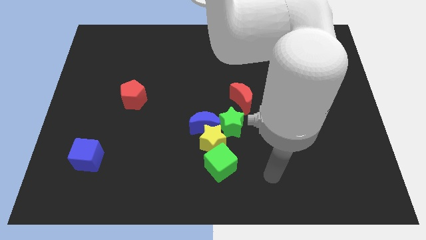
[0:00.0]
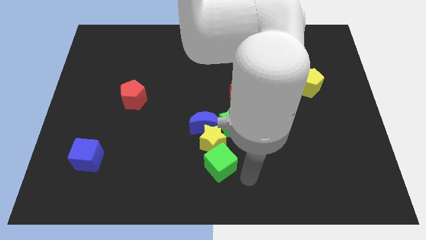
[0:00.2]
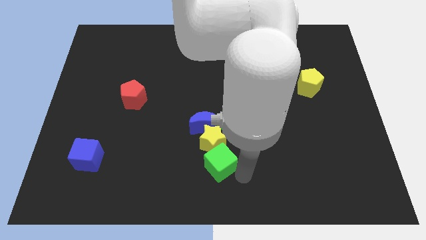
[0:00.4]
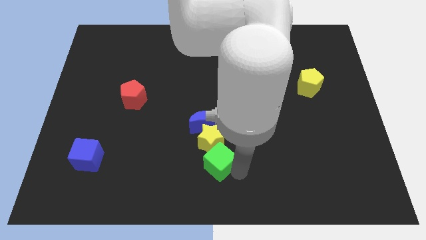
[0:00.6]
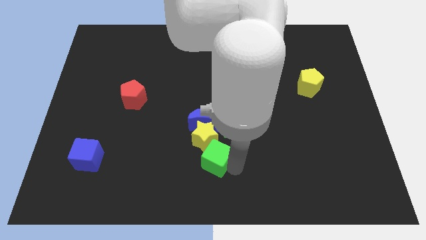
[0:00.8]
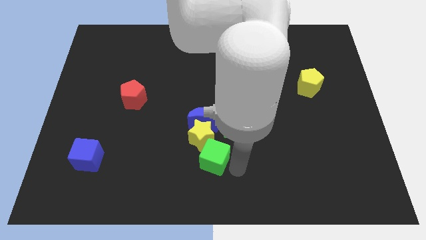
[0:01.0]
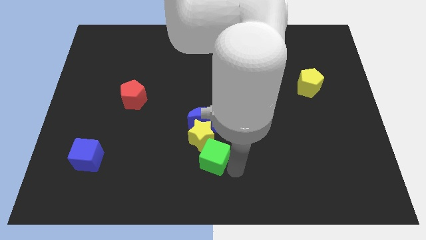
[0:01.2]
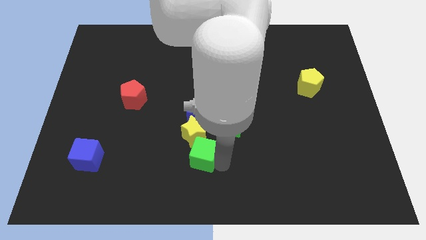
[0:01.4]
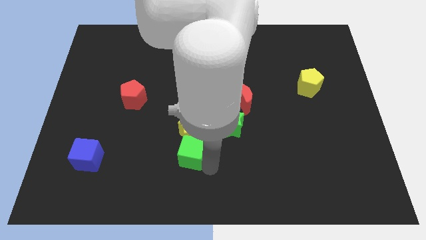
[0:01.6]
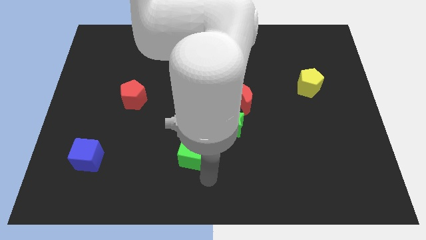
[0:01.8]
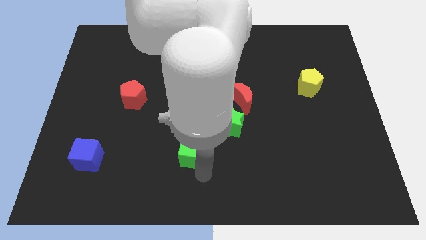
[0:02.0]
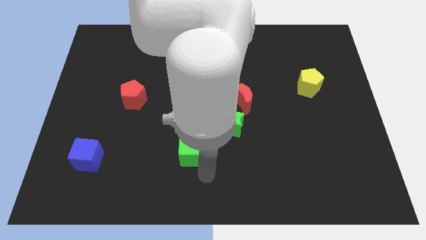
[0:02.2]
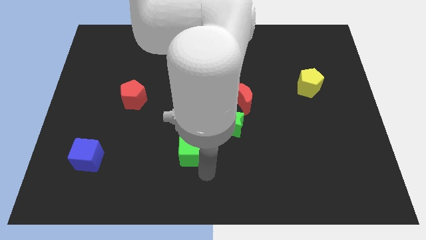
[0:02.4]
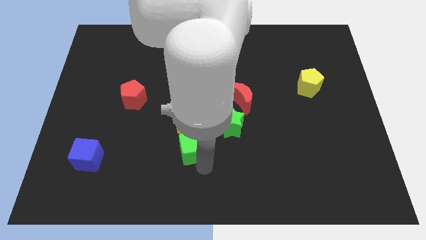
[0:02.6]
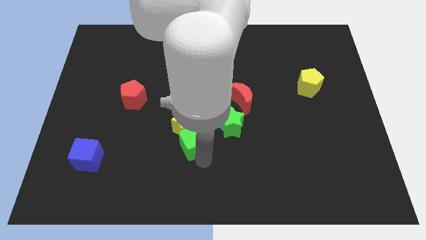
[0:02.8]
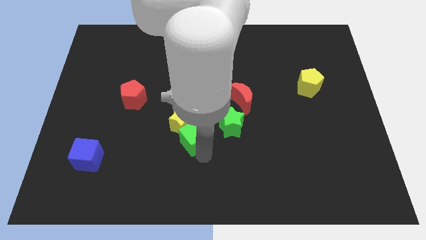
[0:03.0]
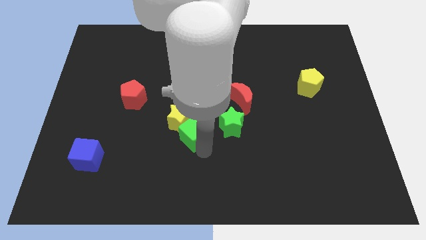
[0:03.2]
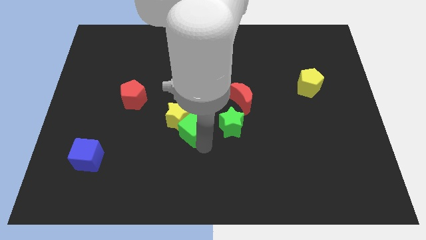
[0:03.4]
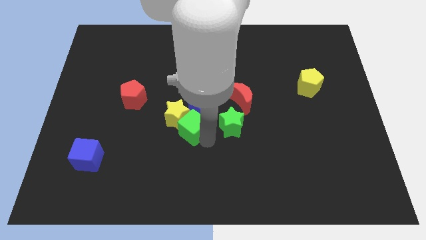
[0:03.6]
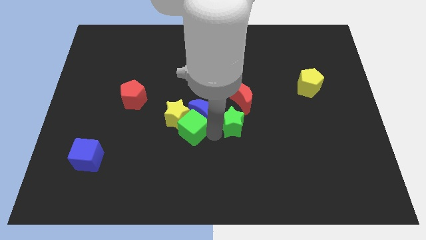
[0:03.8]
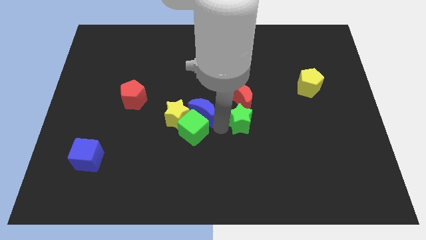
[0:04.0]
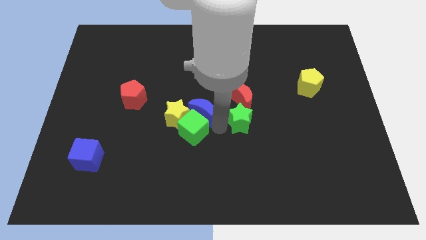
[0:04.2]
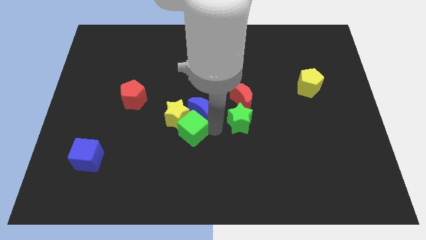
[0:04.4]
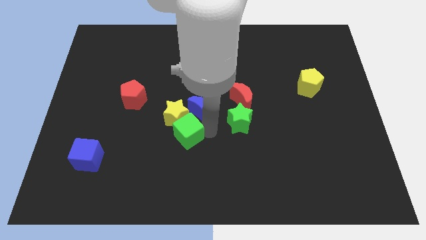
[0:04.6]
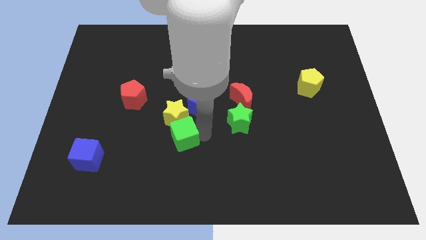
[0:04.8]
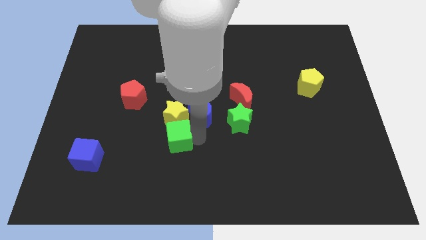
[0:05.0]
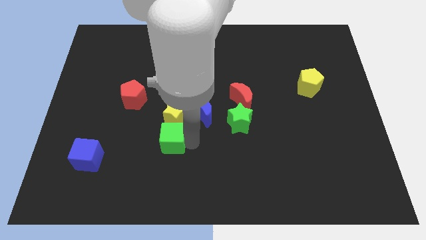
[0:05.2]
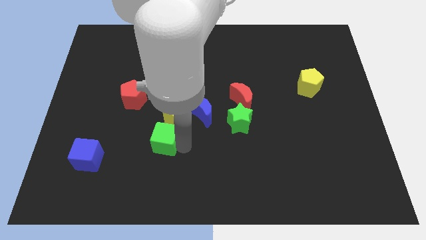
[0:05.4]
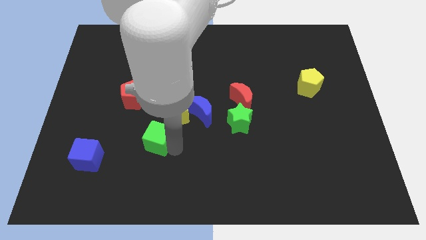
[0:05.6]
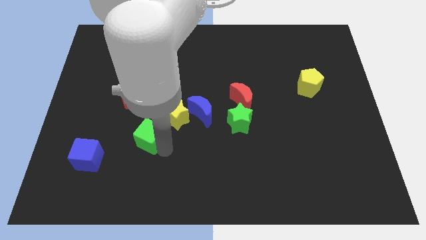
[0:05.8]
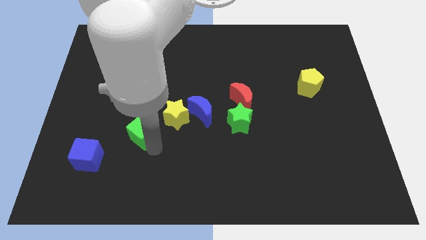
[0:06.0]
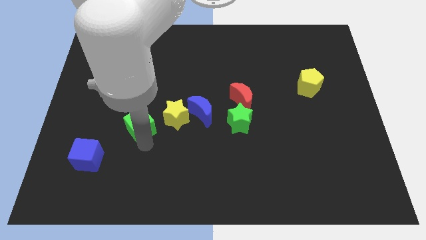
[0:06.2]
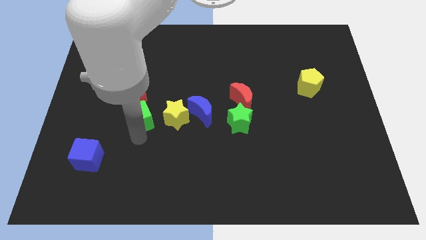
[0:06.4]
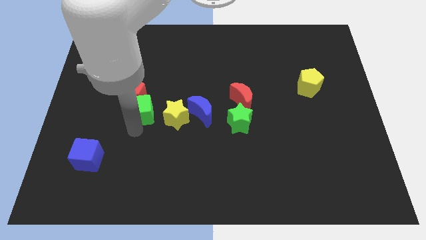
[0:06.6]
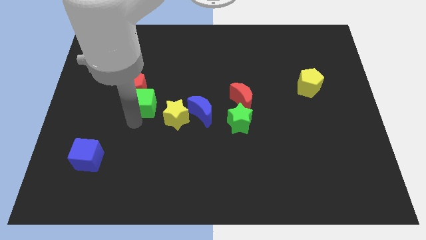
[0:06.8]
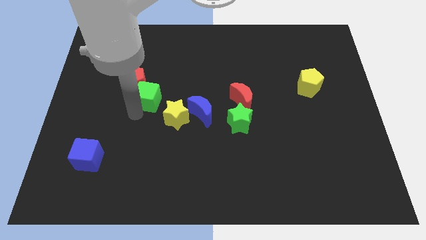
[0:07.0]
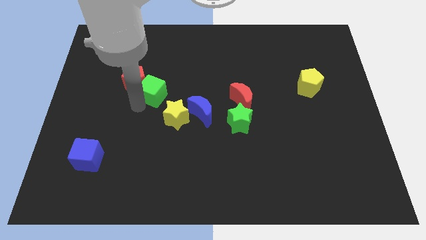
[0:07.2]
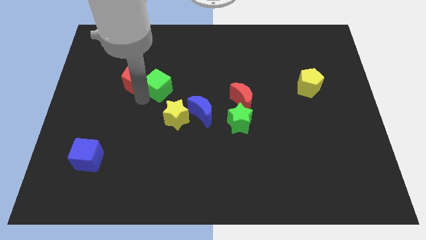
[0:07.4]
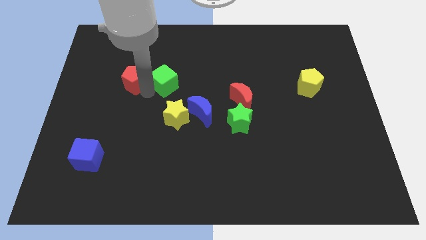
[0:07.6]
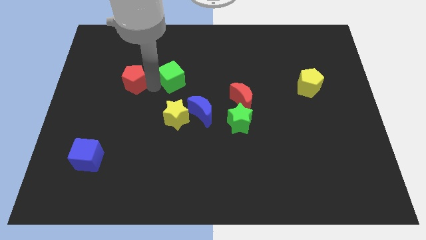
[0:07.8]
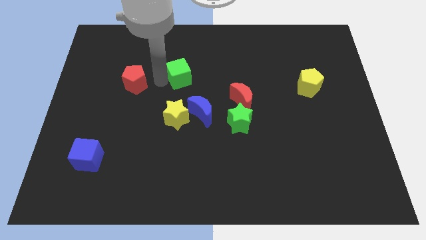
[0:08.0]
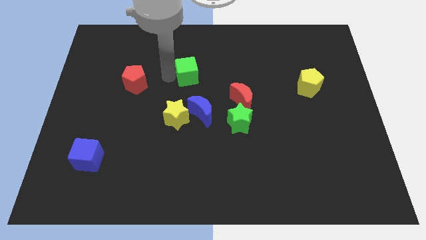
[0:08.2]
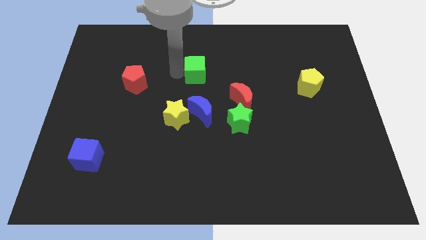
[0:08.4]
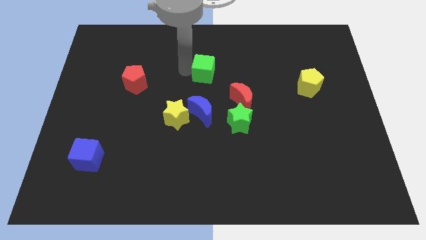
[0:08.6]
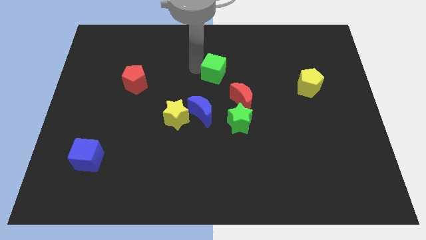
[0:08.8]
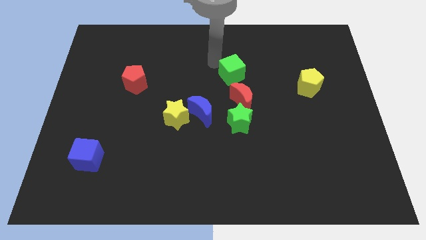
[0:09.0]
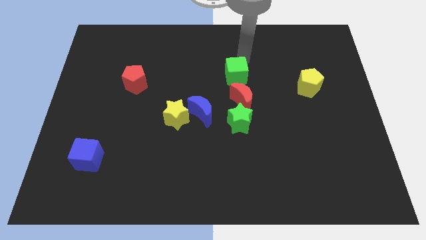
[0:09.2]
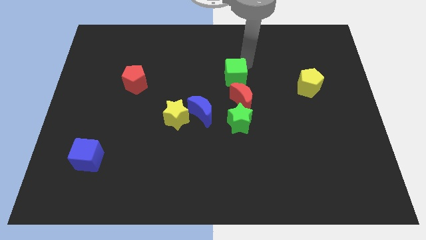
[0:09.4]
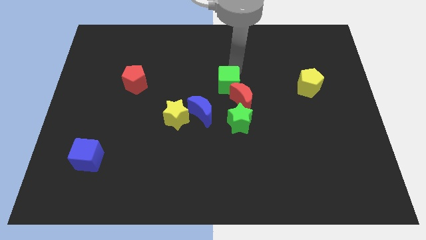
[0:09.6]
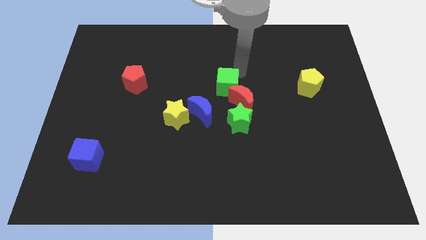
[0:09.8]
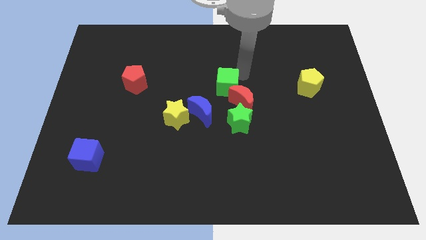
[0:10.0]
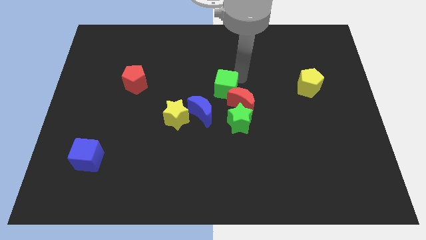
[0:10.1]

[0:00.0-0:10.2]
push the green cube just left of the red moon

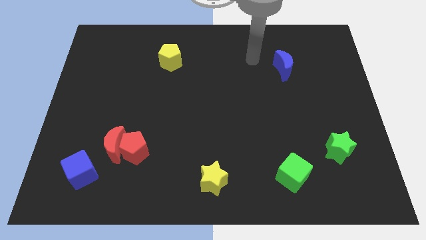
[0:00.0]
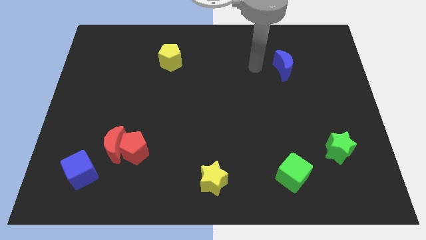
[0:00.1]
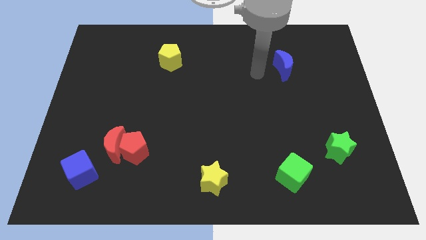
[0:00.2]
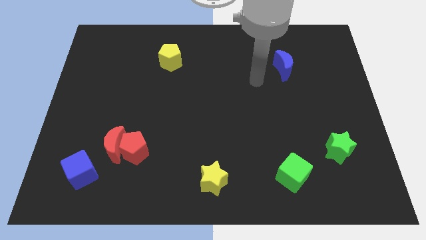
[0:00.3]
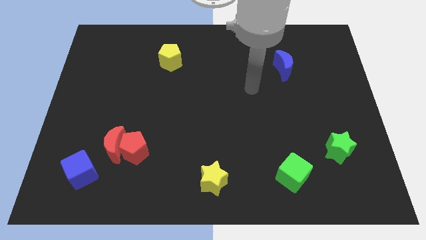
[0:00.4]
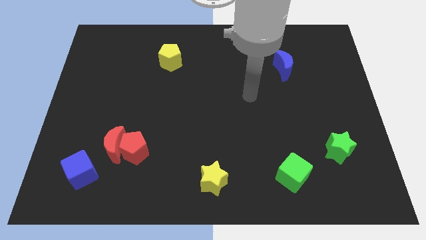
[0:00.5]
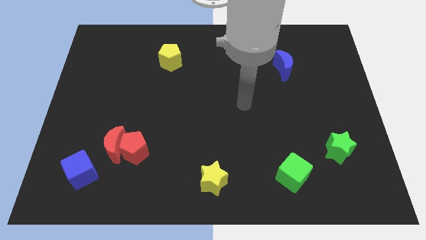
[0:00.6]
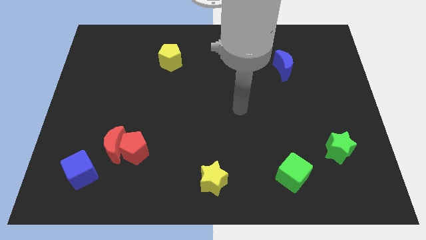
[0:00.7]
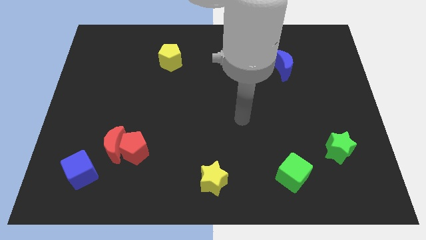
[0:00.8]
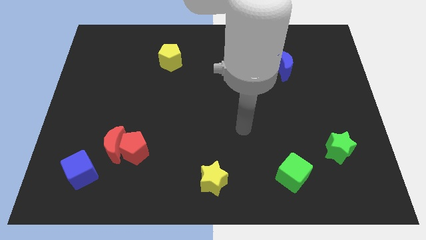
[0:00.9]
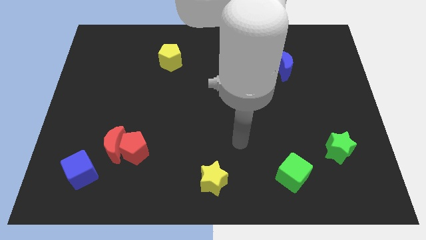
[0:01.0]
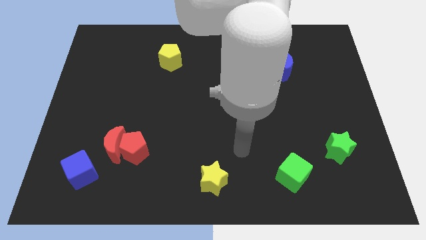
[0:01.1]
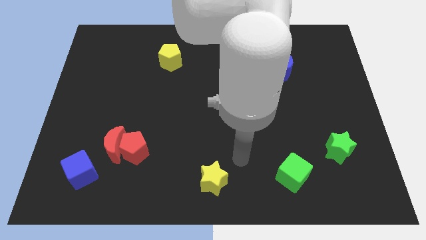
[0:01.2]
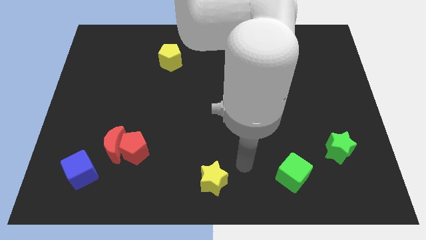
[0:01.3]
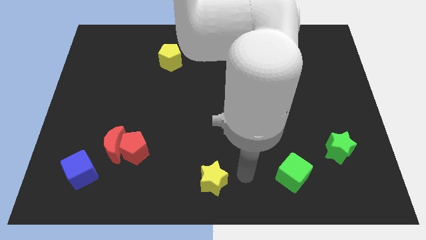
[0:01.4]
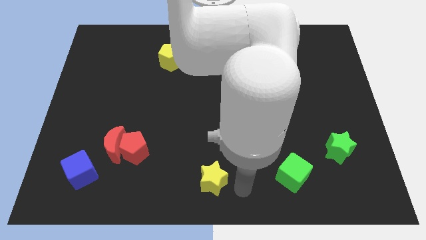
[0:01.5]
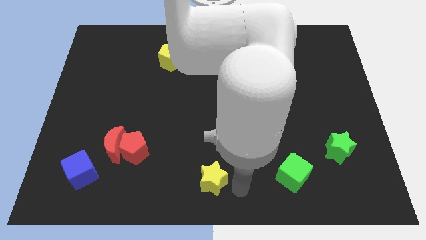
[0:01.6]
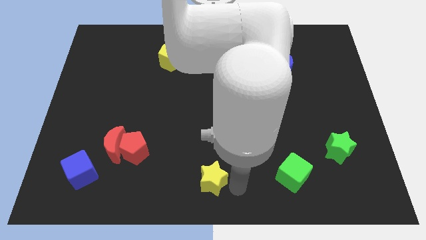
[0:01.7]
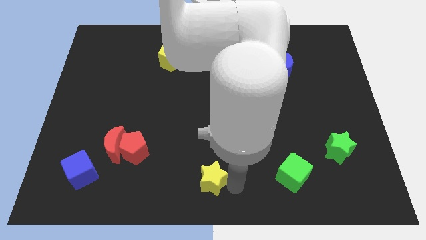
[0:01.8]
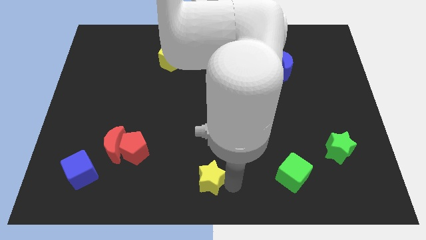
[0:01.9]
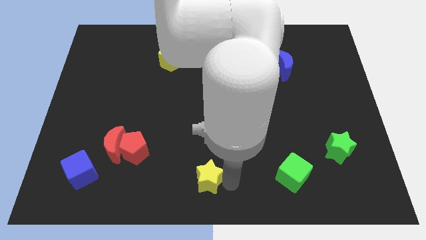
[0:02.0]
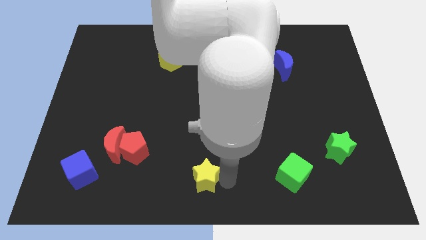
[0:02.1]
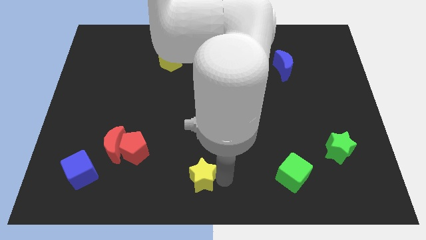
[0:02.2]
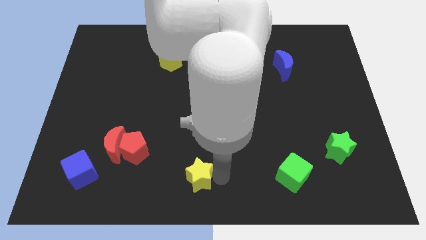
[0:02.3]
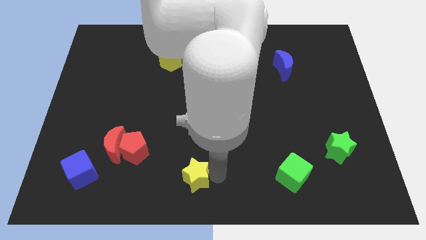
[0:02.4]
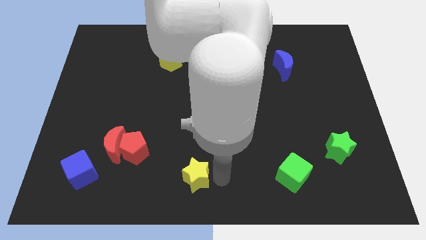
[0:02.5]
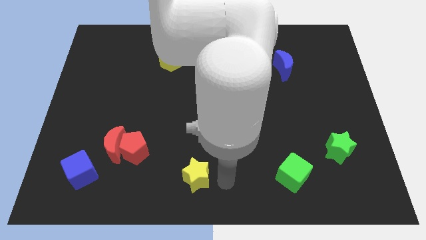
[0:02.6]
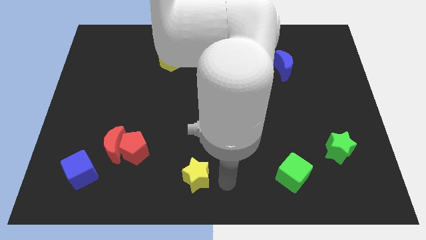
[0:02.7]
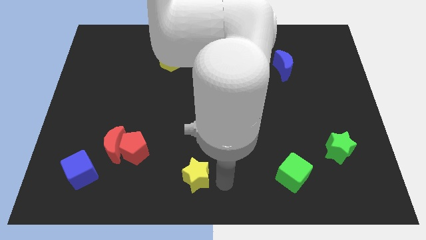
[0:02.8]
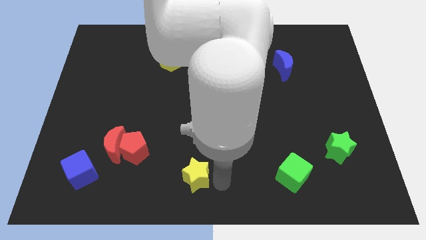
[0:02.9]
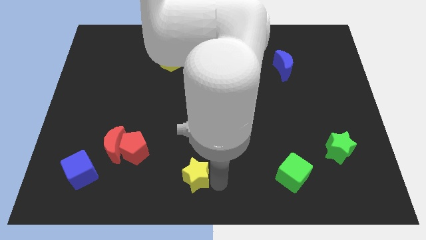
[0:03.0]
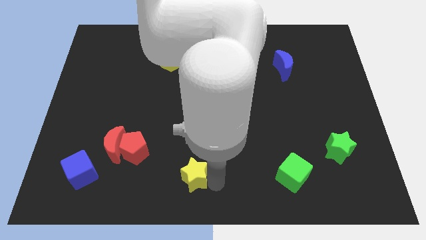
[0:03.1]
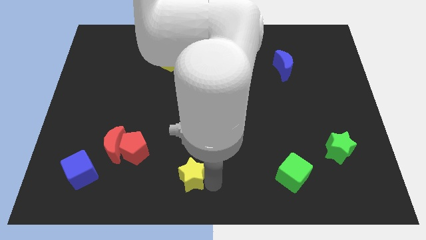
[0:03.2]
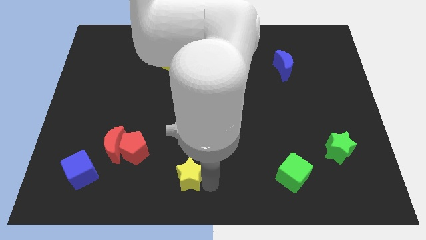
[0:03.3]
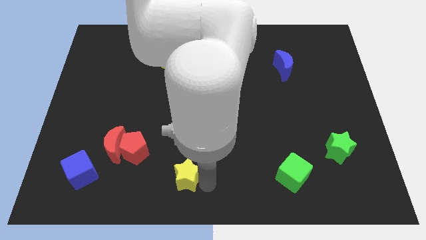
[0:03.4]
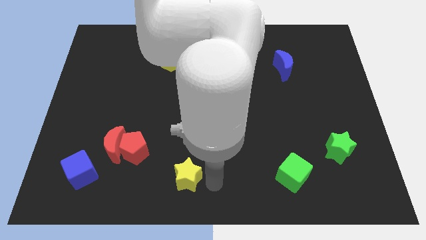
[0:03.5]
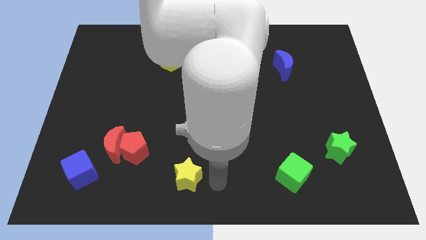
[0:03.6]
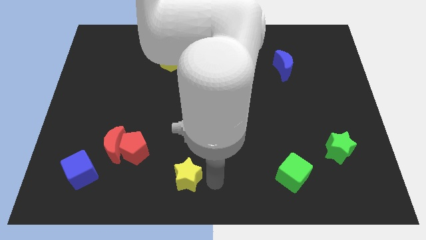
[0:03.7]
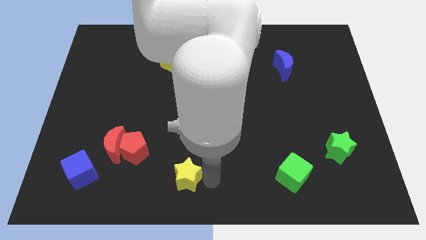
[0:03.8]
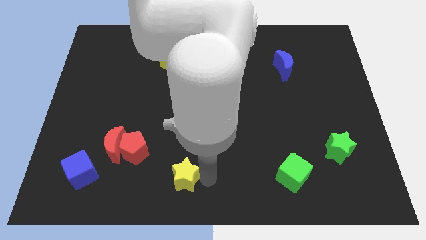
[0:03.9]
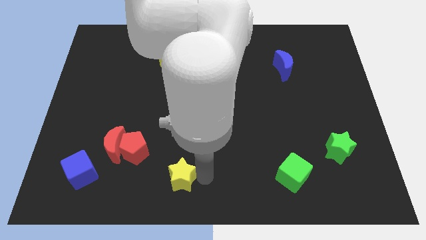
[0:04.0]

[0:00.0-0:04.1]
slide the yellow star to the bottom right side of the red pentagon
